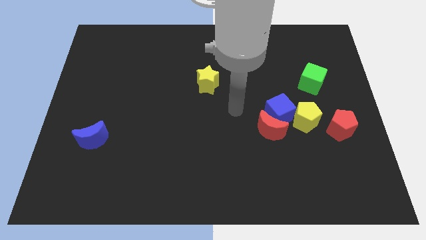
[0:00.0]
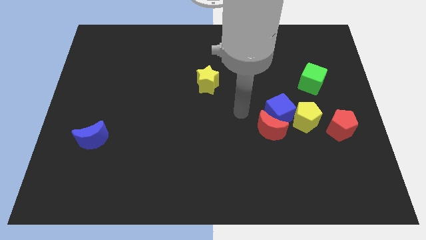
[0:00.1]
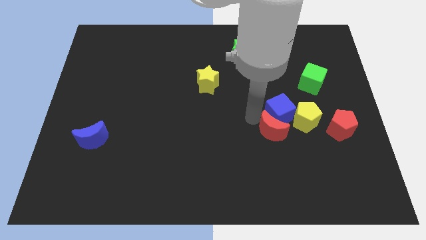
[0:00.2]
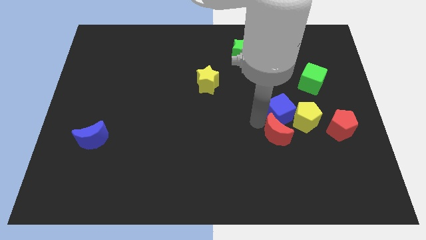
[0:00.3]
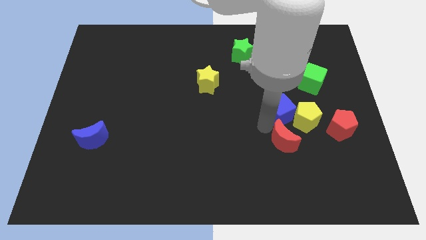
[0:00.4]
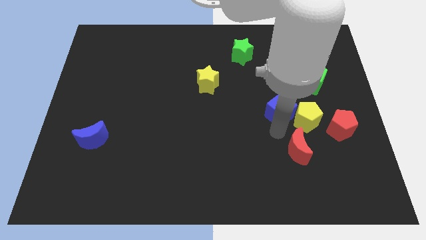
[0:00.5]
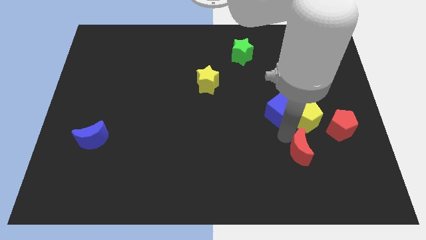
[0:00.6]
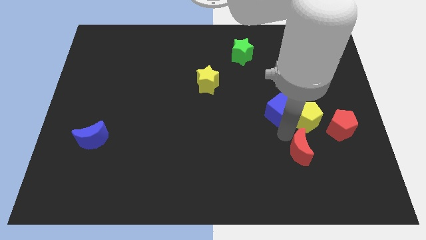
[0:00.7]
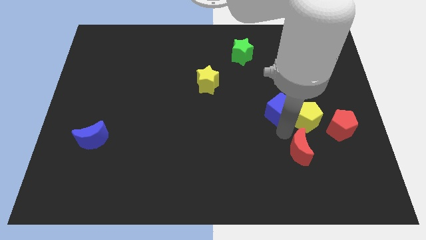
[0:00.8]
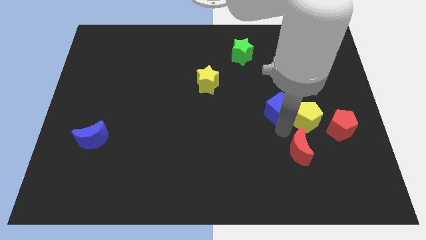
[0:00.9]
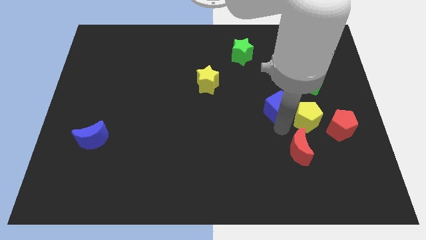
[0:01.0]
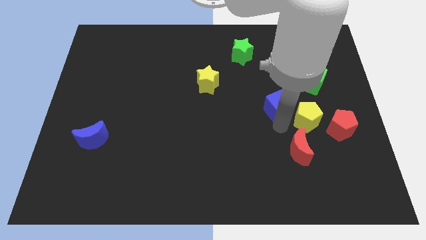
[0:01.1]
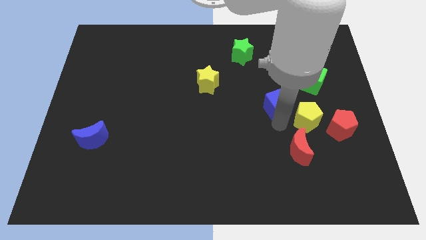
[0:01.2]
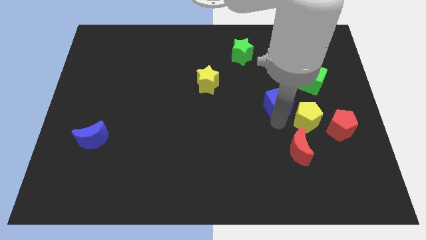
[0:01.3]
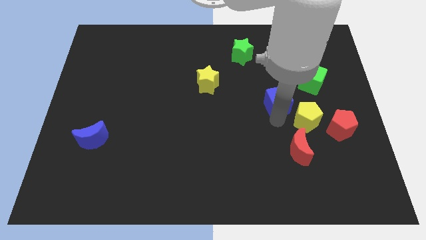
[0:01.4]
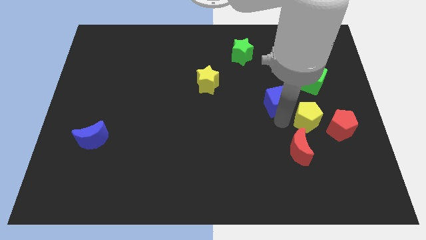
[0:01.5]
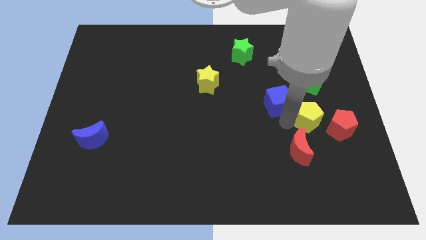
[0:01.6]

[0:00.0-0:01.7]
pull the blue cube apart from the red moon and yellow pentagon

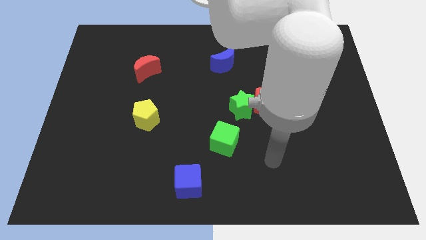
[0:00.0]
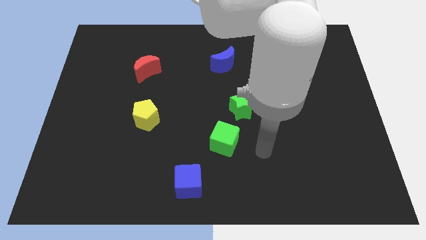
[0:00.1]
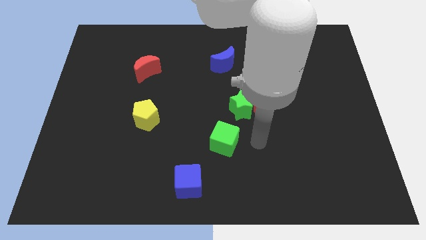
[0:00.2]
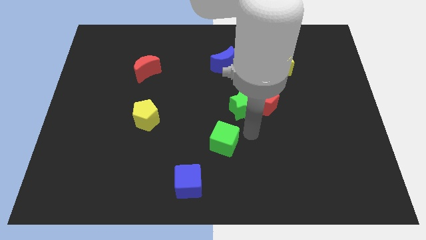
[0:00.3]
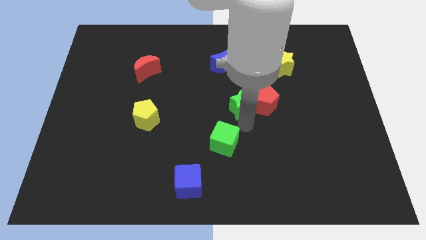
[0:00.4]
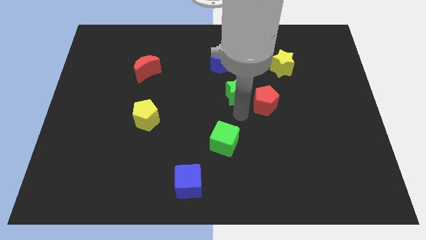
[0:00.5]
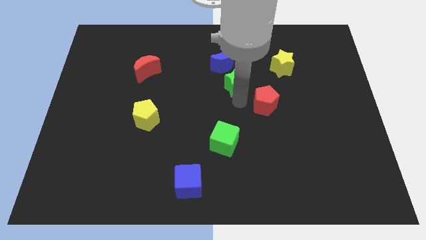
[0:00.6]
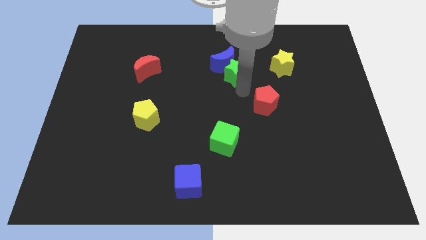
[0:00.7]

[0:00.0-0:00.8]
pull the red pentagon apart from the green star

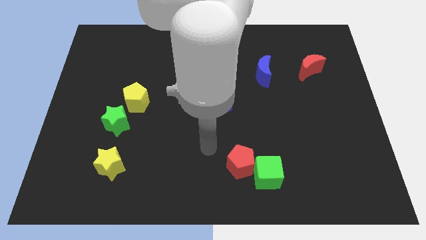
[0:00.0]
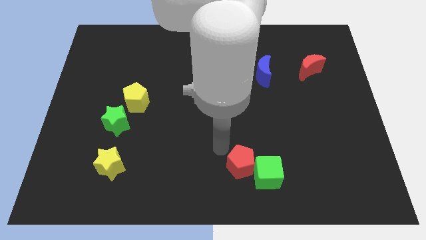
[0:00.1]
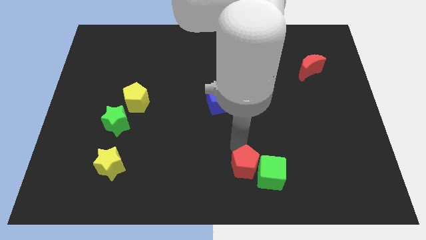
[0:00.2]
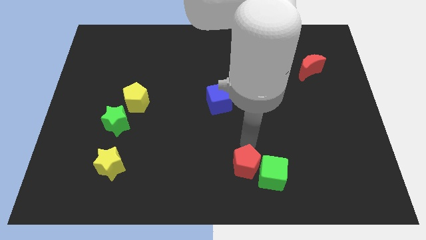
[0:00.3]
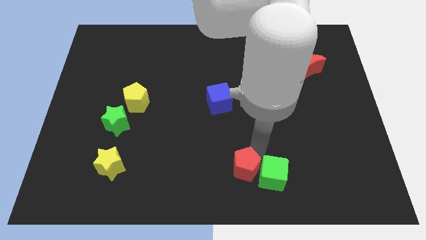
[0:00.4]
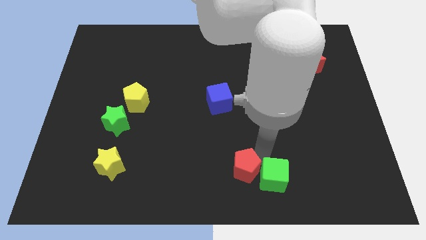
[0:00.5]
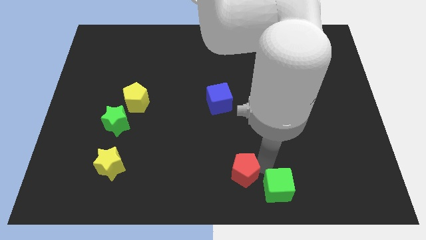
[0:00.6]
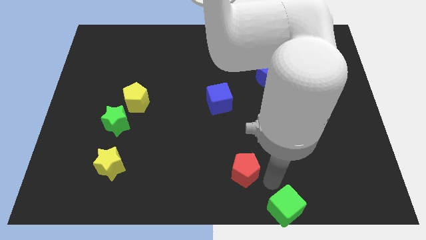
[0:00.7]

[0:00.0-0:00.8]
pull the red pentagon apart from the green cube

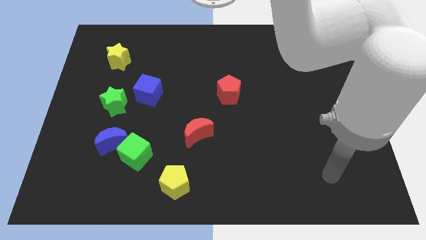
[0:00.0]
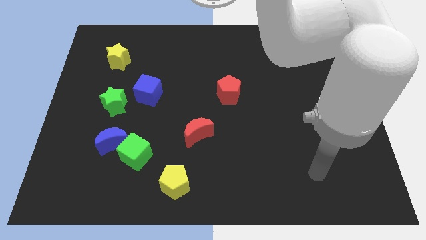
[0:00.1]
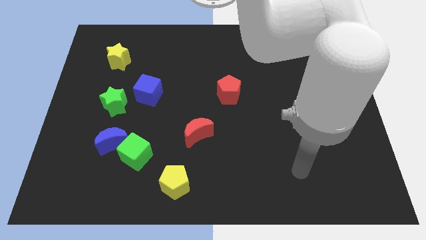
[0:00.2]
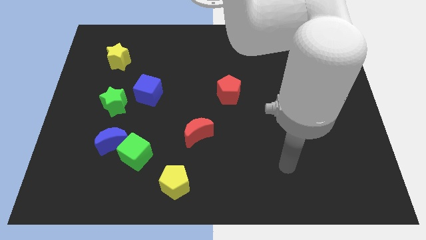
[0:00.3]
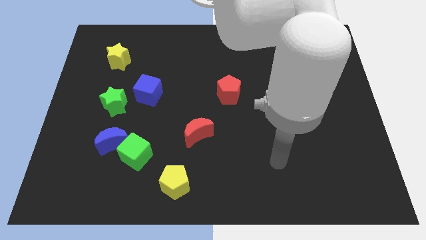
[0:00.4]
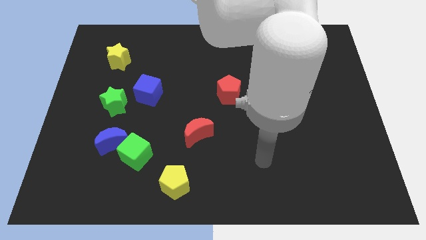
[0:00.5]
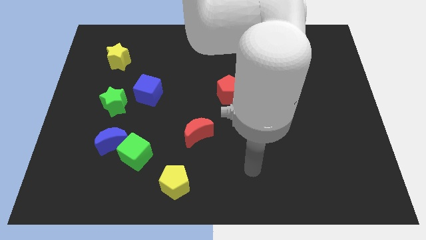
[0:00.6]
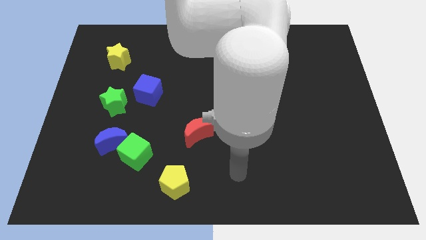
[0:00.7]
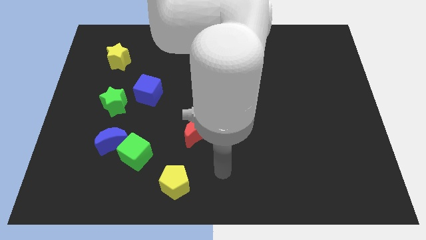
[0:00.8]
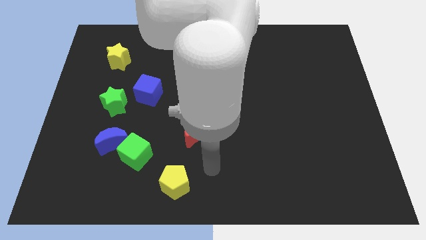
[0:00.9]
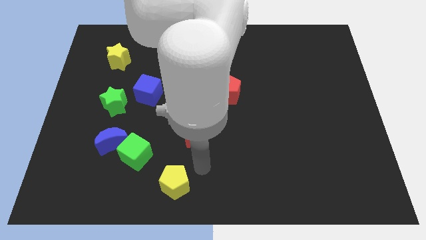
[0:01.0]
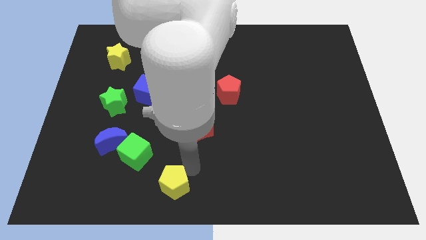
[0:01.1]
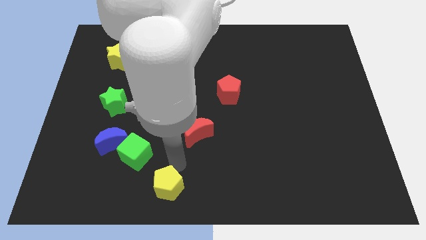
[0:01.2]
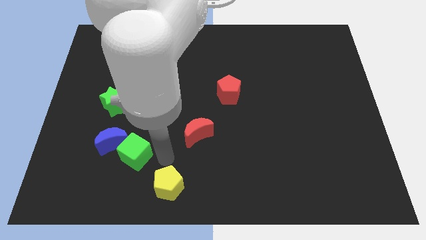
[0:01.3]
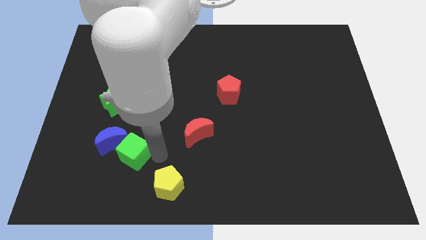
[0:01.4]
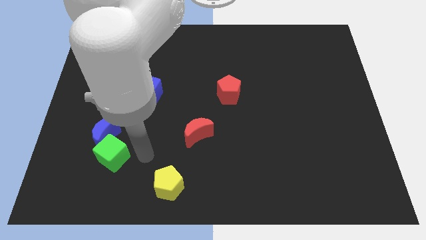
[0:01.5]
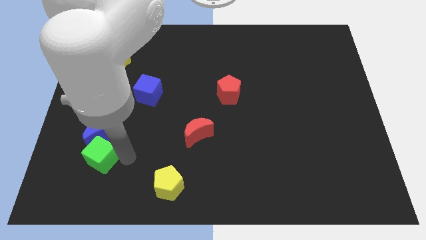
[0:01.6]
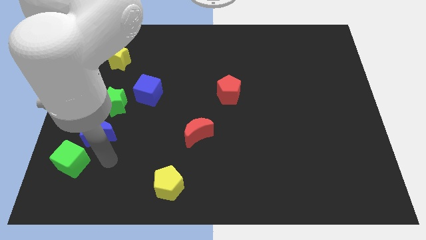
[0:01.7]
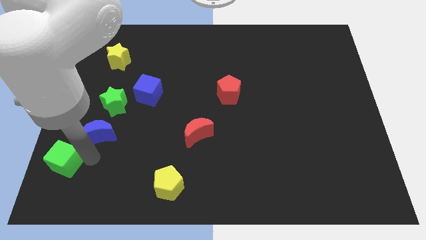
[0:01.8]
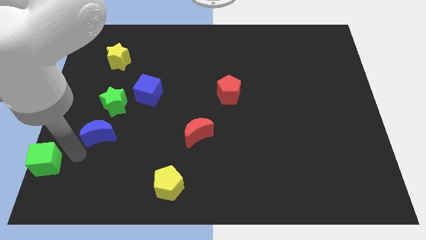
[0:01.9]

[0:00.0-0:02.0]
move the blue moon away from the green cube

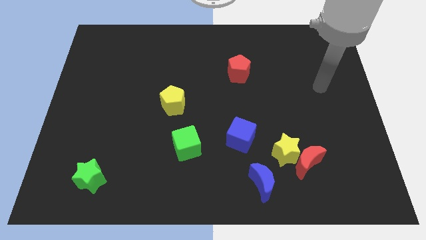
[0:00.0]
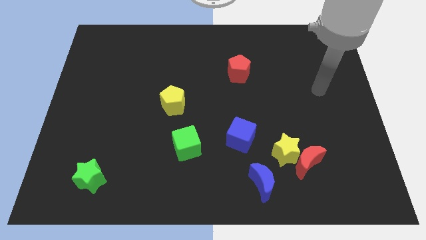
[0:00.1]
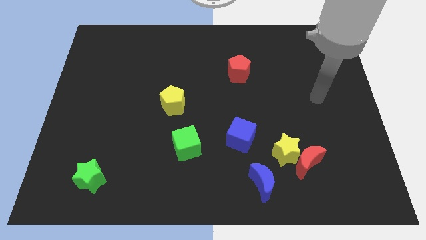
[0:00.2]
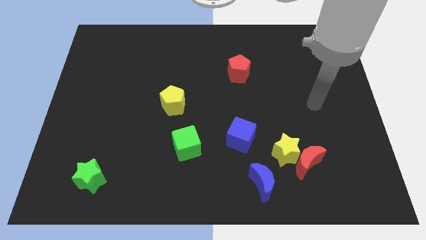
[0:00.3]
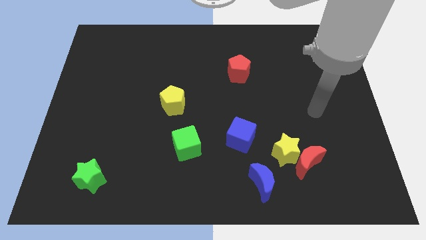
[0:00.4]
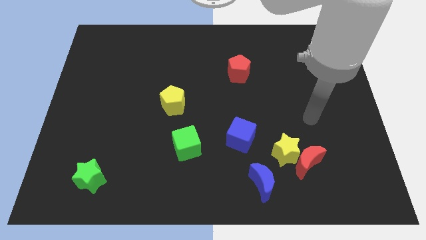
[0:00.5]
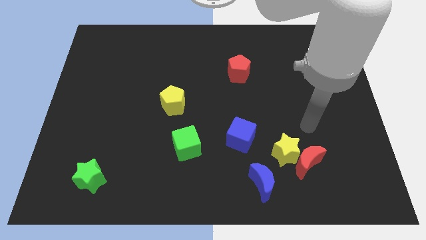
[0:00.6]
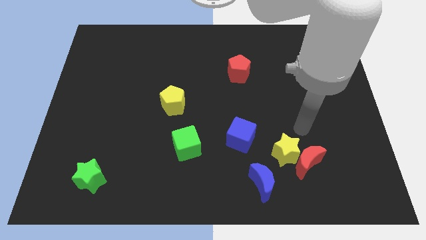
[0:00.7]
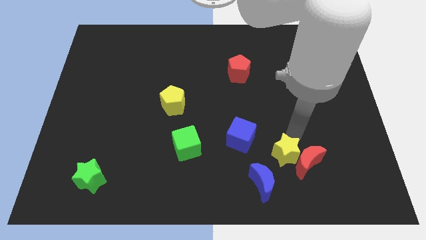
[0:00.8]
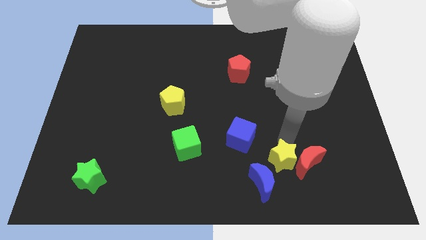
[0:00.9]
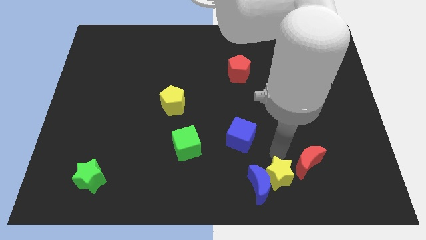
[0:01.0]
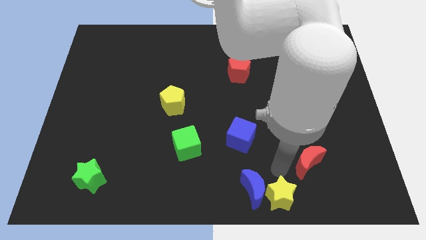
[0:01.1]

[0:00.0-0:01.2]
move the red moon away from the yellow star

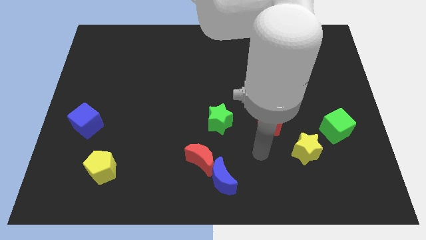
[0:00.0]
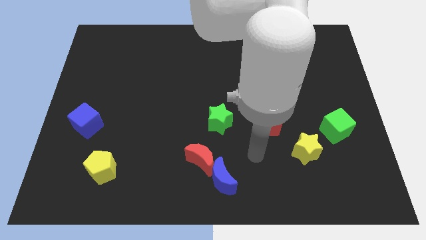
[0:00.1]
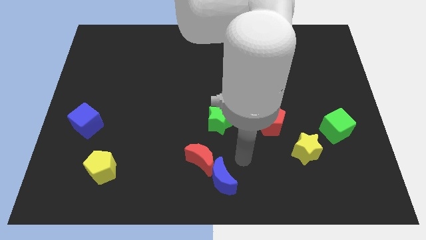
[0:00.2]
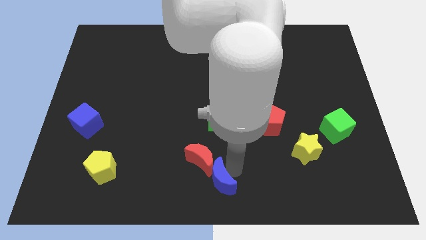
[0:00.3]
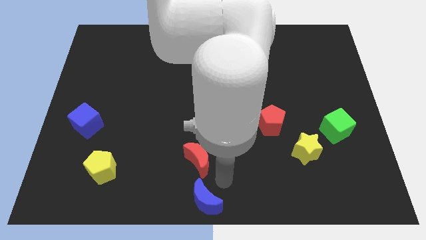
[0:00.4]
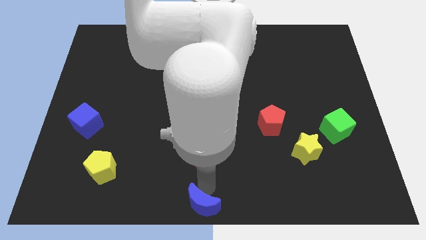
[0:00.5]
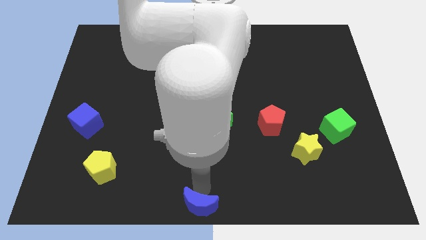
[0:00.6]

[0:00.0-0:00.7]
separate the red moon from the blue moon

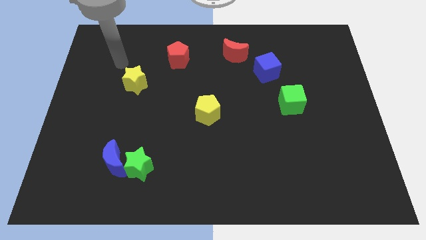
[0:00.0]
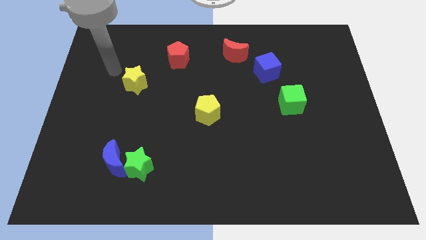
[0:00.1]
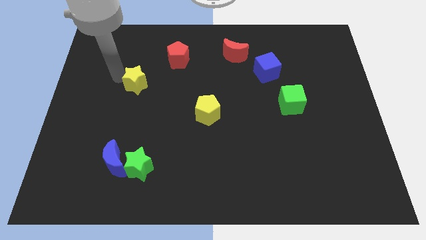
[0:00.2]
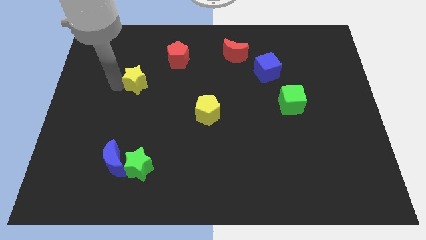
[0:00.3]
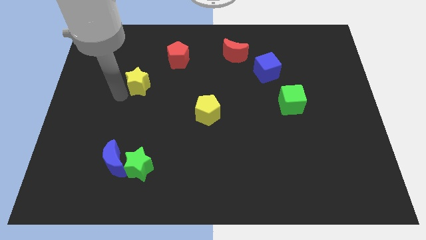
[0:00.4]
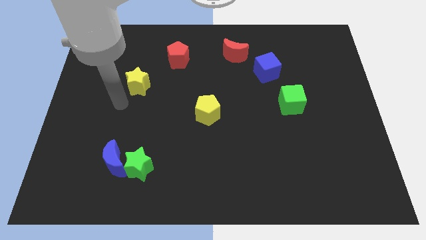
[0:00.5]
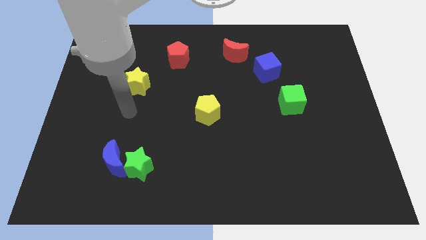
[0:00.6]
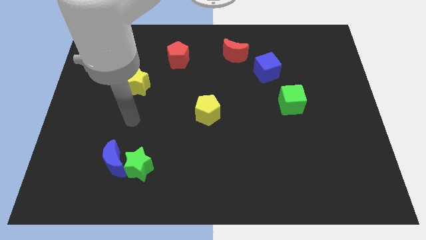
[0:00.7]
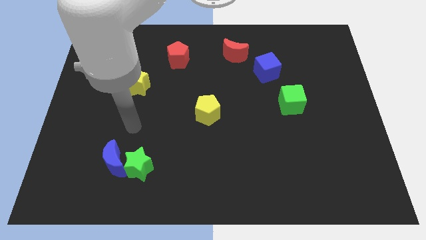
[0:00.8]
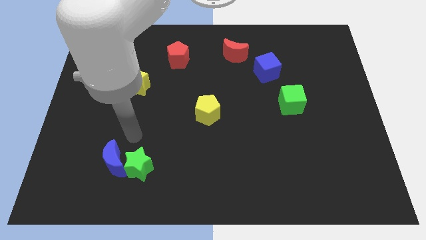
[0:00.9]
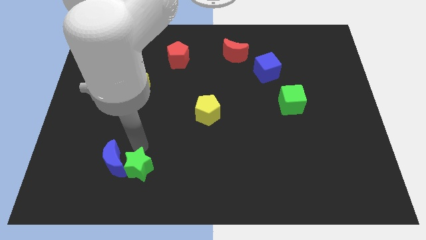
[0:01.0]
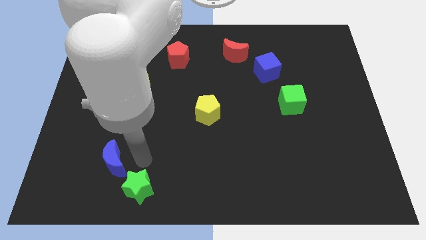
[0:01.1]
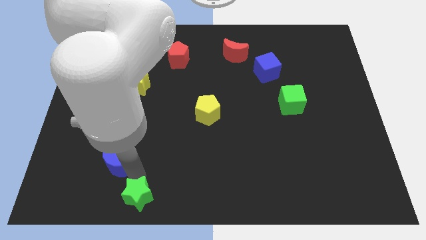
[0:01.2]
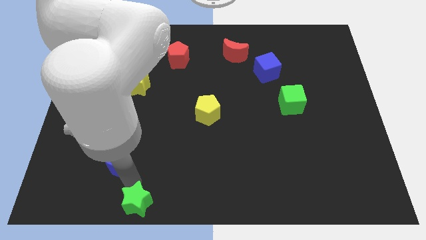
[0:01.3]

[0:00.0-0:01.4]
separate the blue moon from the green star

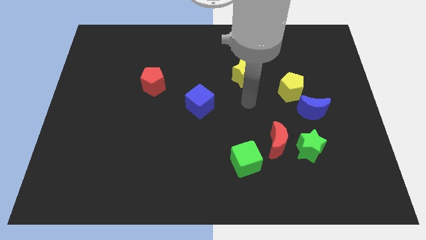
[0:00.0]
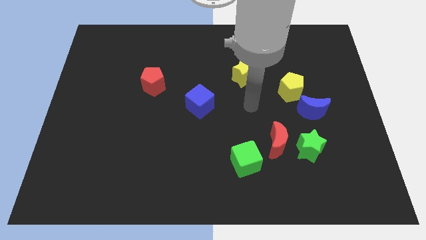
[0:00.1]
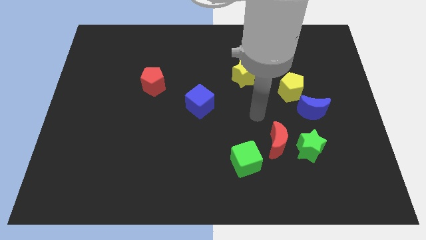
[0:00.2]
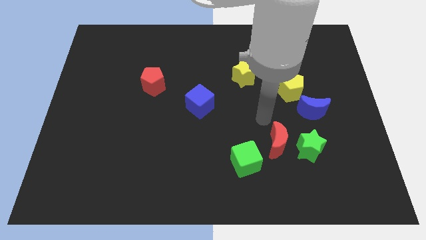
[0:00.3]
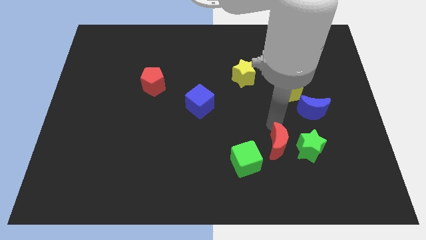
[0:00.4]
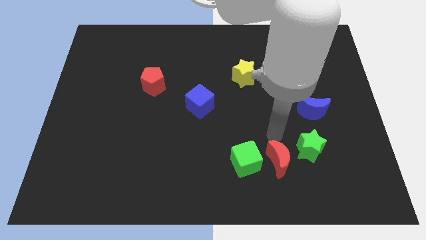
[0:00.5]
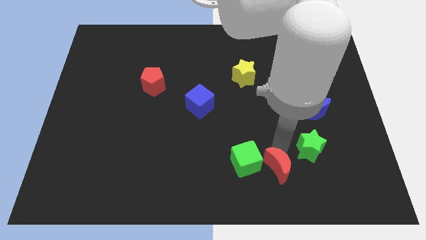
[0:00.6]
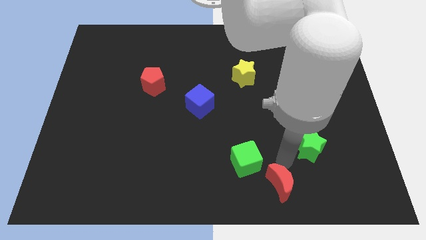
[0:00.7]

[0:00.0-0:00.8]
pull the green star apart from the red moon

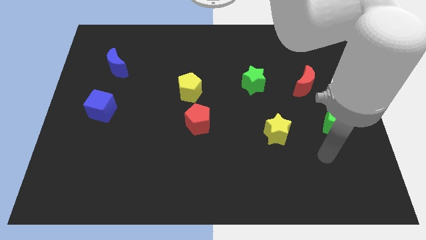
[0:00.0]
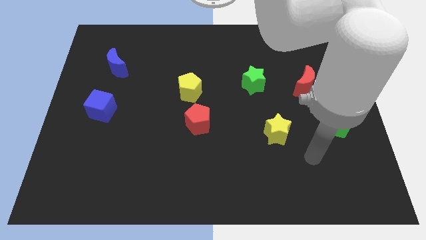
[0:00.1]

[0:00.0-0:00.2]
separate the red pentagon from the yellow pentagon
